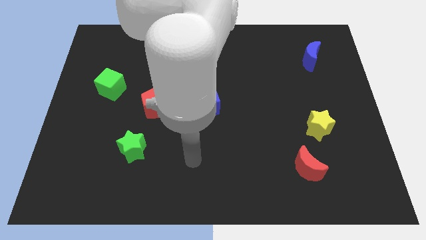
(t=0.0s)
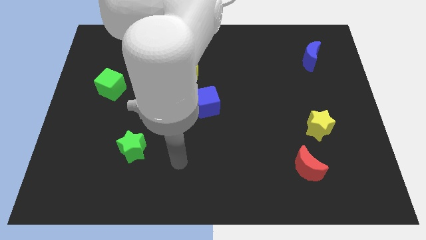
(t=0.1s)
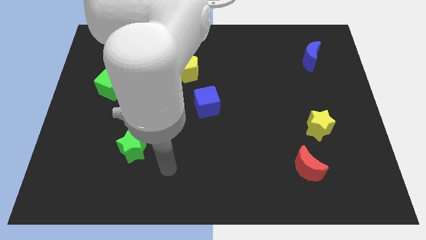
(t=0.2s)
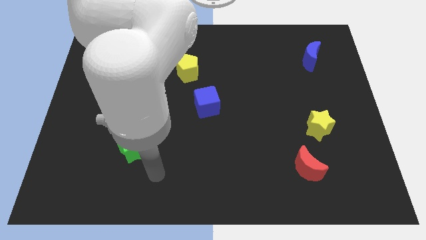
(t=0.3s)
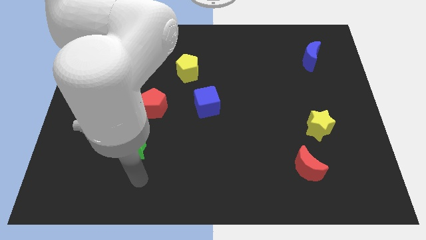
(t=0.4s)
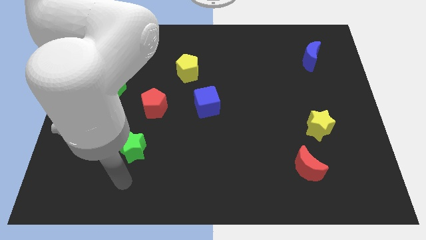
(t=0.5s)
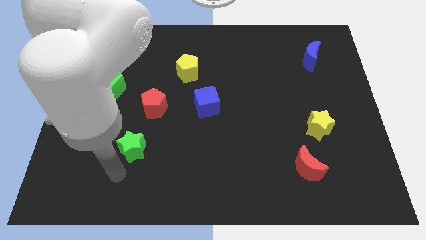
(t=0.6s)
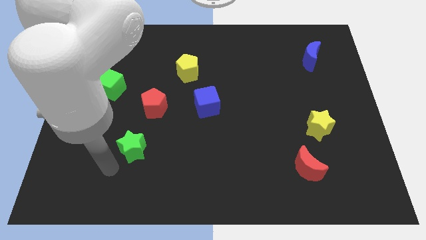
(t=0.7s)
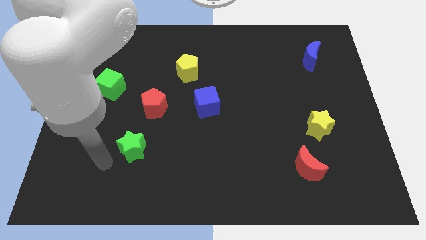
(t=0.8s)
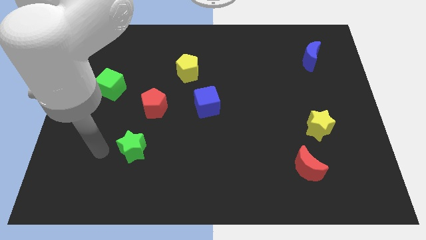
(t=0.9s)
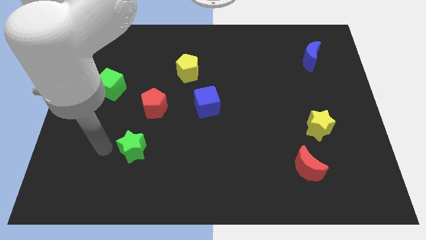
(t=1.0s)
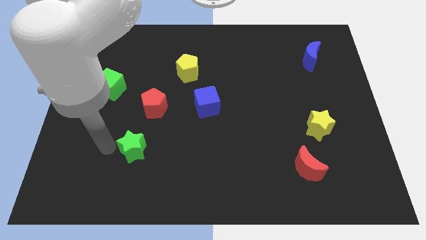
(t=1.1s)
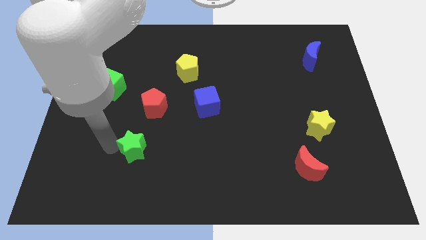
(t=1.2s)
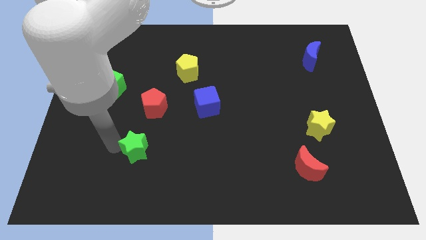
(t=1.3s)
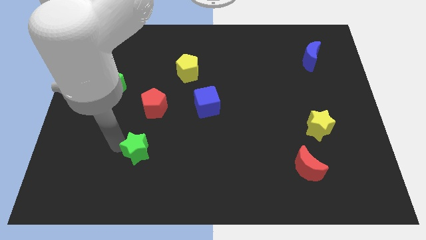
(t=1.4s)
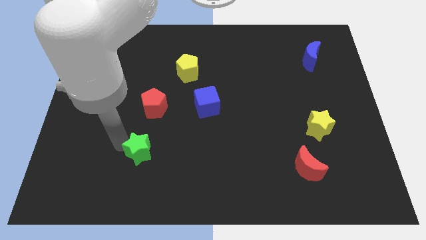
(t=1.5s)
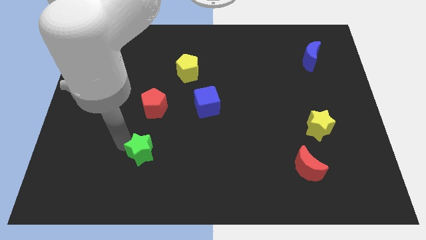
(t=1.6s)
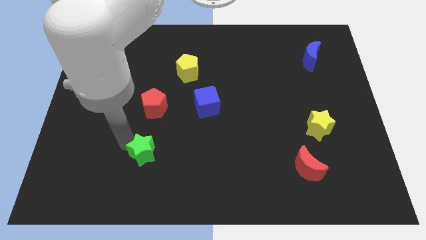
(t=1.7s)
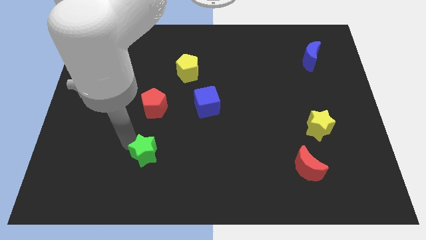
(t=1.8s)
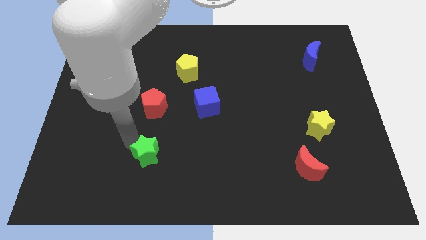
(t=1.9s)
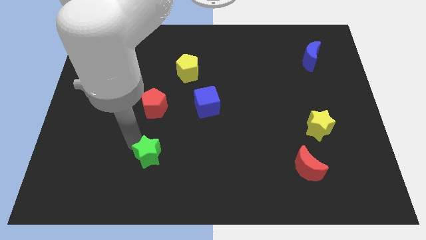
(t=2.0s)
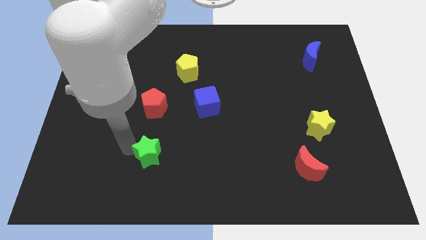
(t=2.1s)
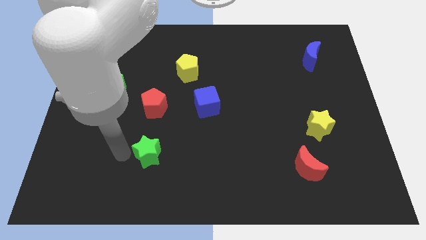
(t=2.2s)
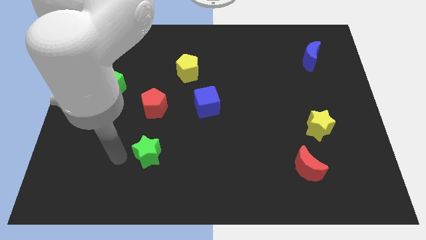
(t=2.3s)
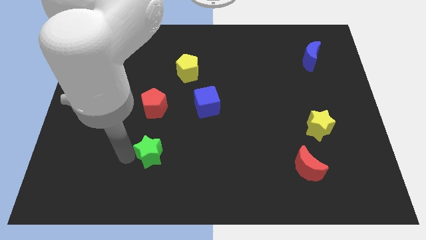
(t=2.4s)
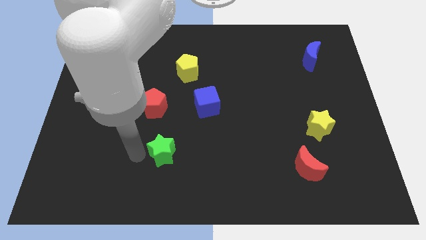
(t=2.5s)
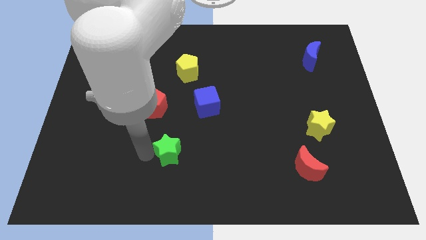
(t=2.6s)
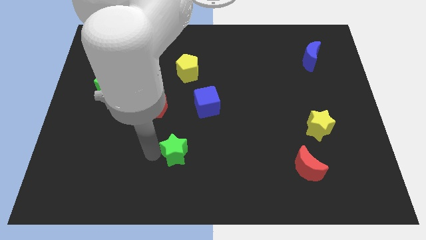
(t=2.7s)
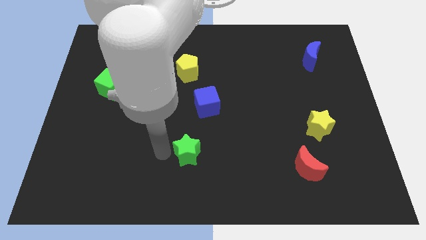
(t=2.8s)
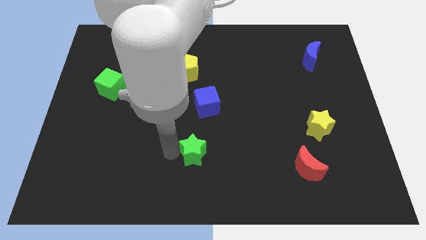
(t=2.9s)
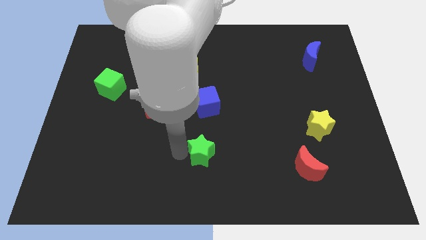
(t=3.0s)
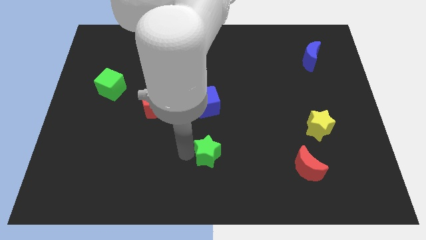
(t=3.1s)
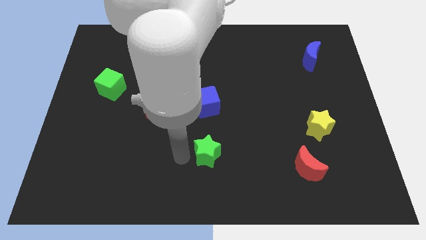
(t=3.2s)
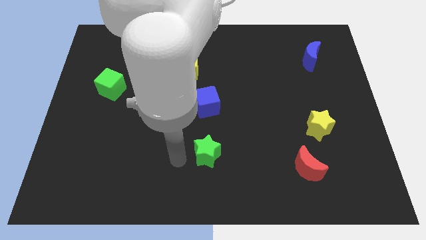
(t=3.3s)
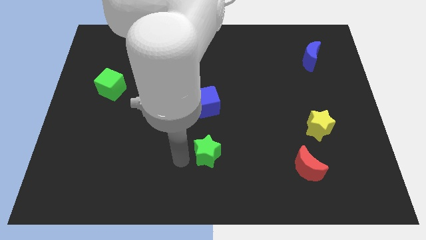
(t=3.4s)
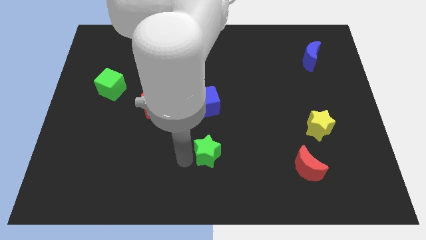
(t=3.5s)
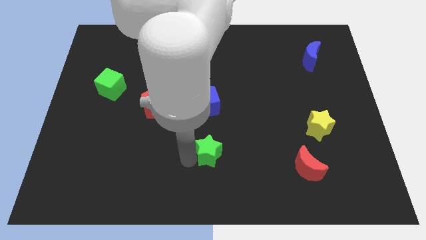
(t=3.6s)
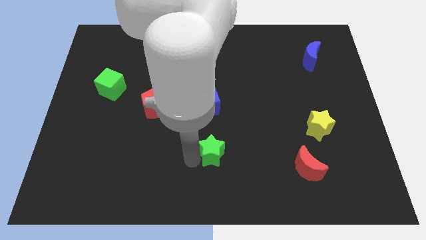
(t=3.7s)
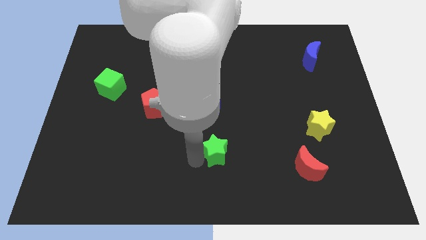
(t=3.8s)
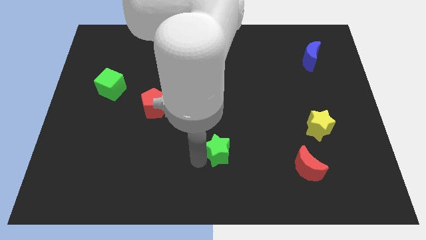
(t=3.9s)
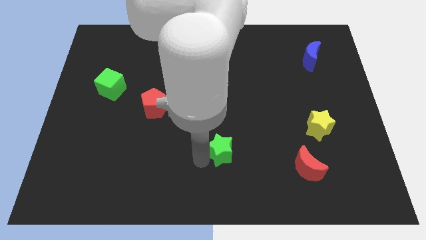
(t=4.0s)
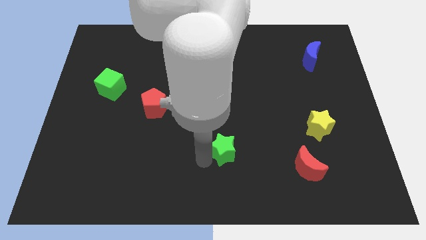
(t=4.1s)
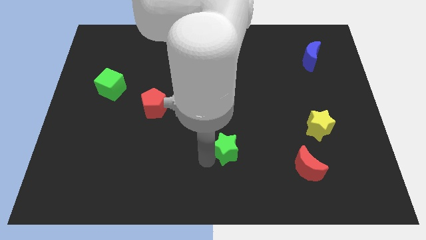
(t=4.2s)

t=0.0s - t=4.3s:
push the green star to the right

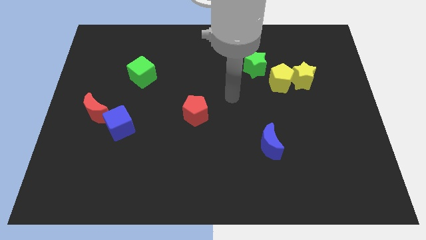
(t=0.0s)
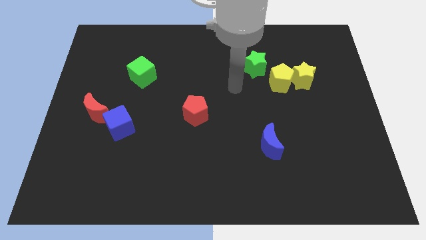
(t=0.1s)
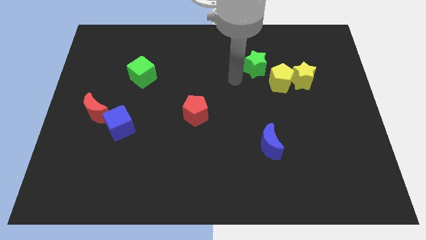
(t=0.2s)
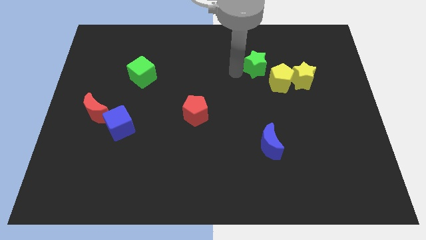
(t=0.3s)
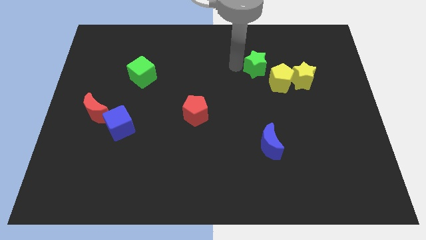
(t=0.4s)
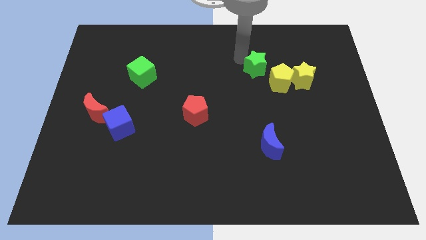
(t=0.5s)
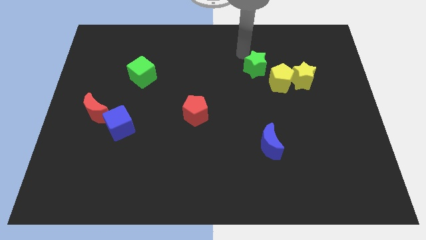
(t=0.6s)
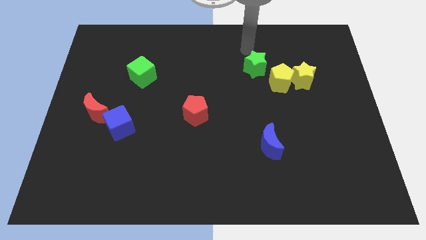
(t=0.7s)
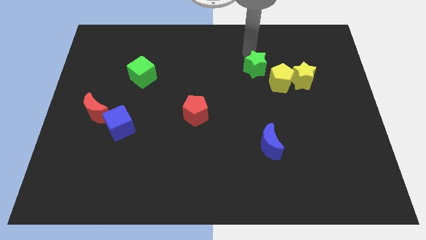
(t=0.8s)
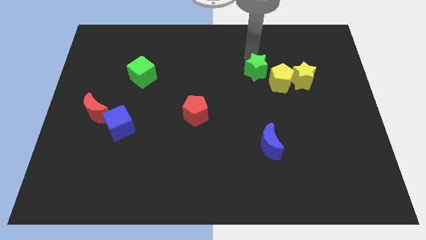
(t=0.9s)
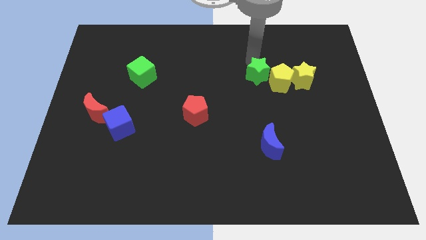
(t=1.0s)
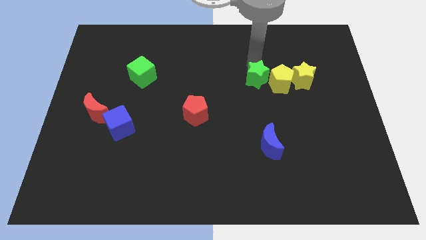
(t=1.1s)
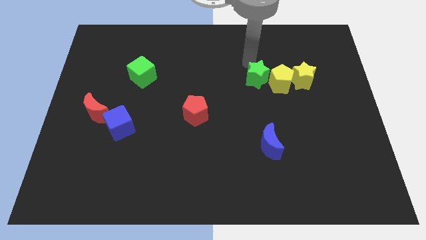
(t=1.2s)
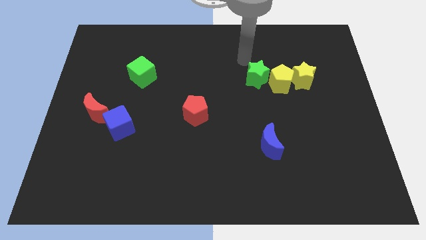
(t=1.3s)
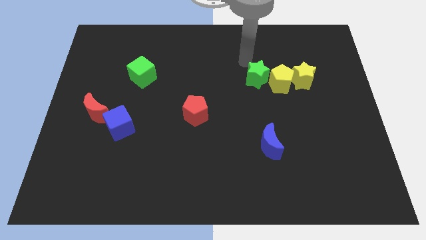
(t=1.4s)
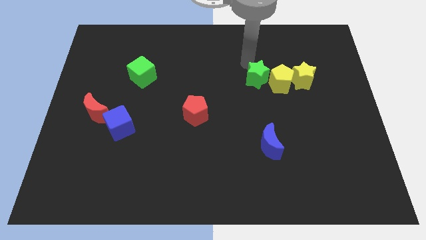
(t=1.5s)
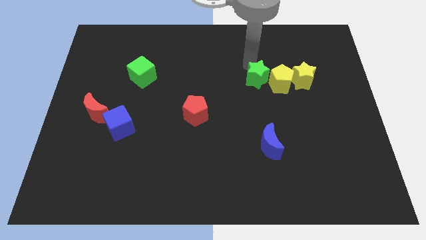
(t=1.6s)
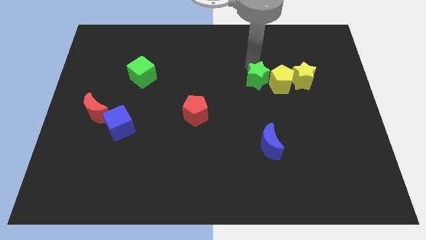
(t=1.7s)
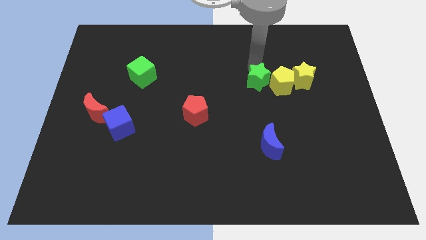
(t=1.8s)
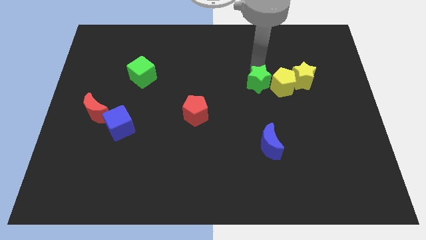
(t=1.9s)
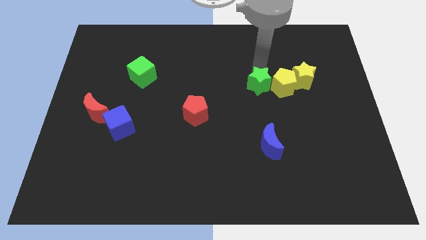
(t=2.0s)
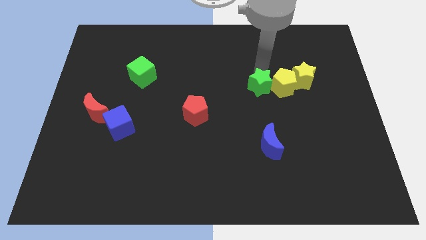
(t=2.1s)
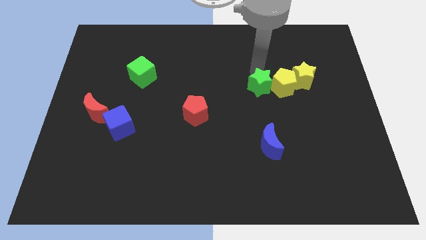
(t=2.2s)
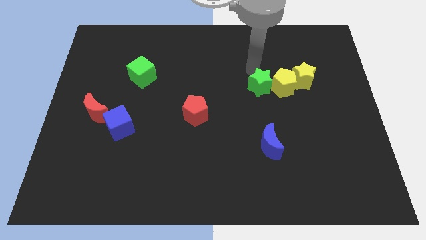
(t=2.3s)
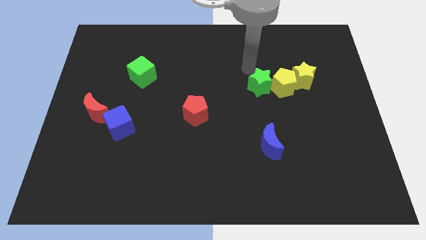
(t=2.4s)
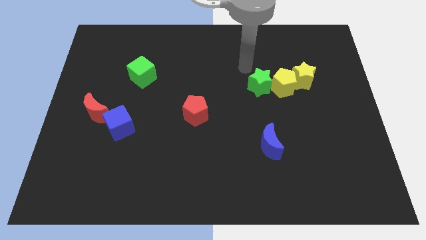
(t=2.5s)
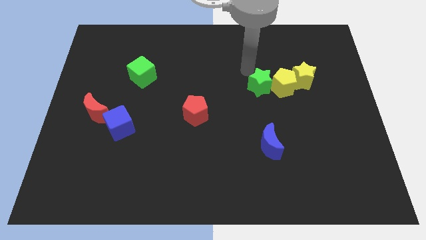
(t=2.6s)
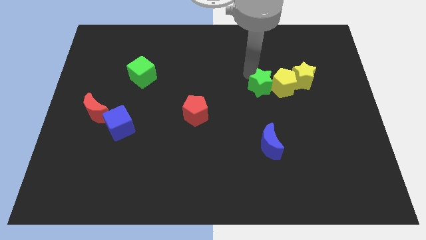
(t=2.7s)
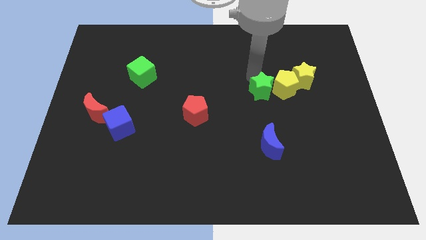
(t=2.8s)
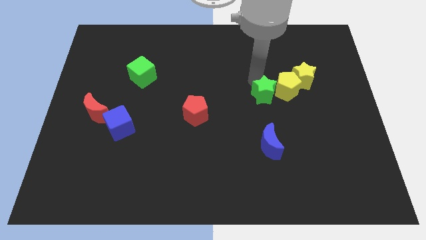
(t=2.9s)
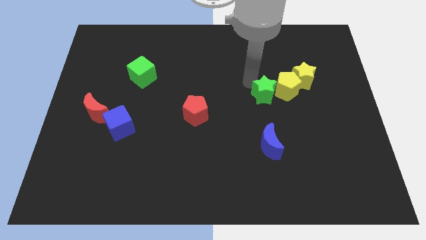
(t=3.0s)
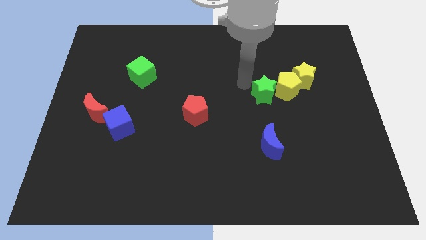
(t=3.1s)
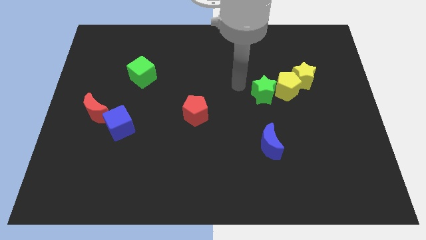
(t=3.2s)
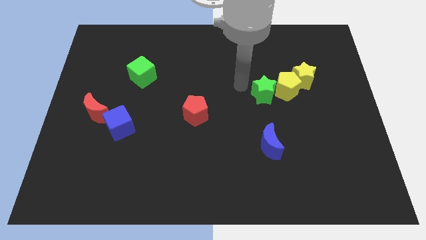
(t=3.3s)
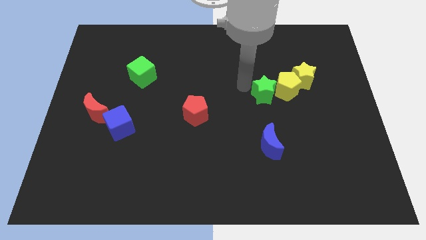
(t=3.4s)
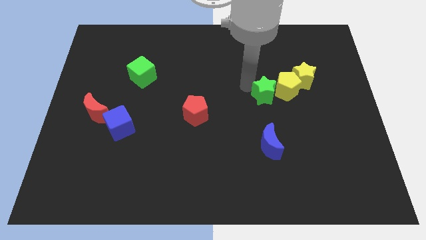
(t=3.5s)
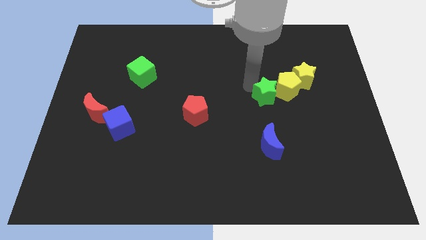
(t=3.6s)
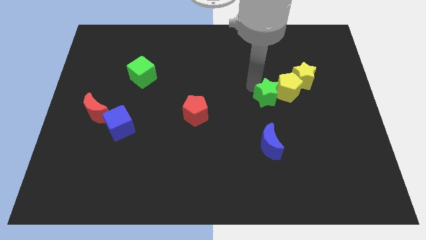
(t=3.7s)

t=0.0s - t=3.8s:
move the green star somewhat down and right diagonally

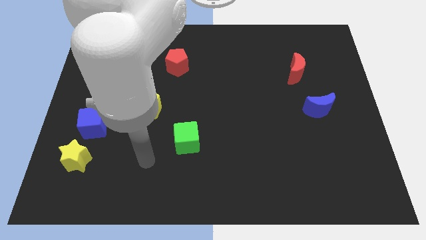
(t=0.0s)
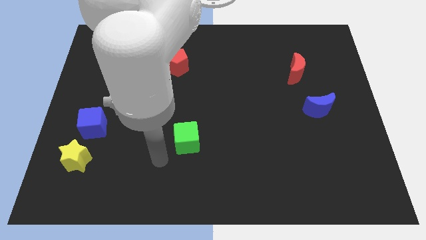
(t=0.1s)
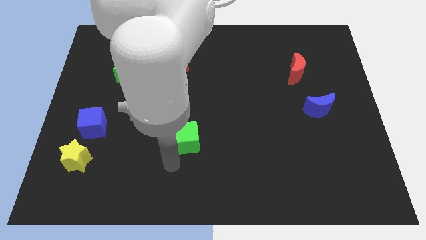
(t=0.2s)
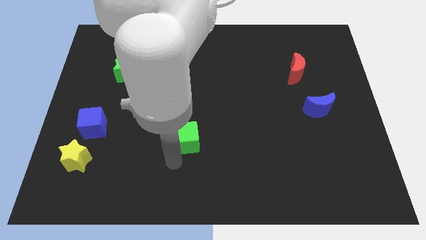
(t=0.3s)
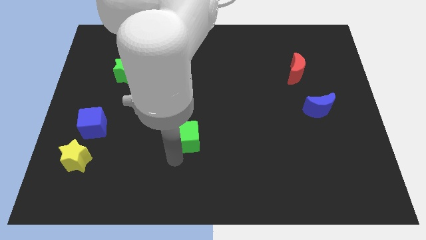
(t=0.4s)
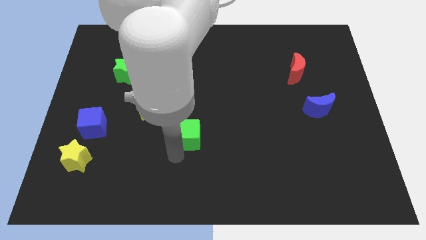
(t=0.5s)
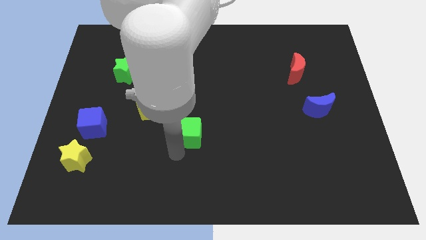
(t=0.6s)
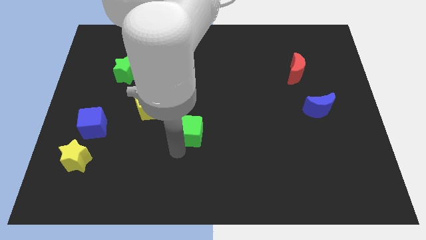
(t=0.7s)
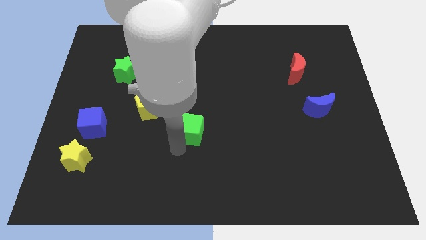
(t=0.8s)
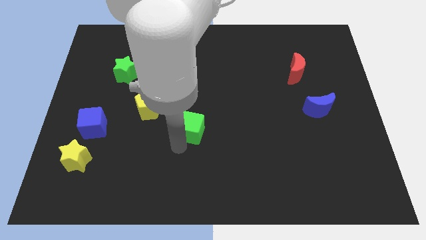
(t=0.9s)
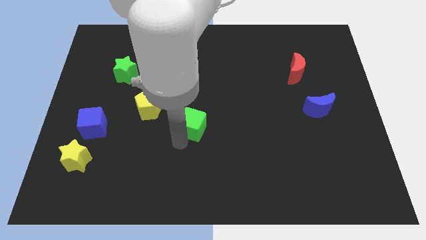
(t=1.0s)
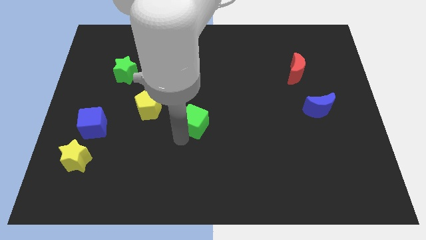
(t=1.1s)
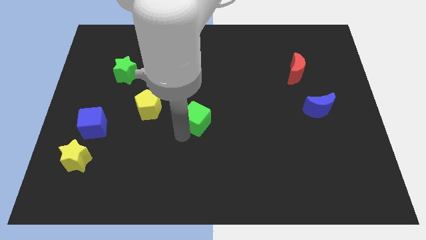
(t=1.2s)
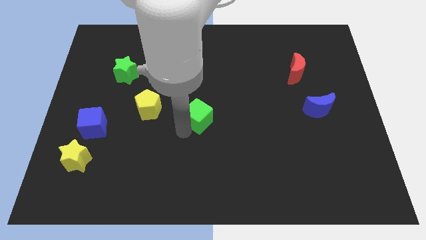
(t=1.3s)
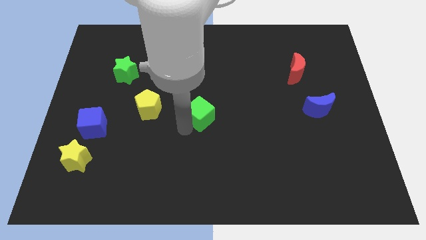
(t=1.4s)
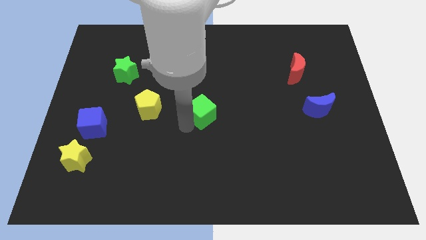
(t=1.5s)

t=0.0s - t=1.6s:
move the green cube diagonally upwards and to the right slightly
